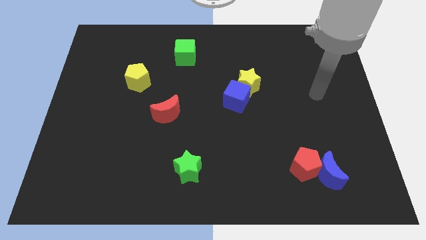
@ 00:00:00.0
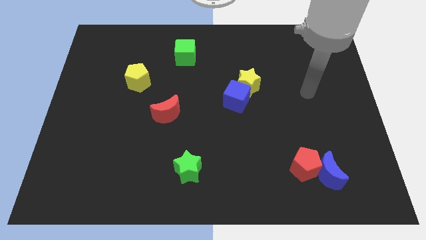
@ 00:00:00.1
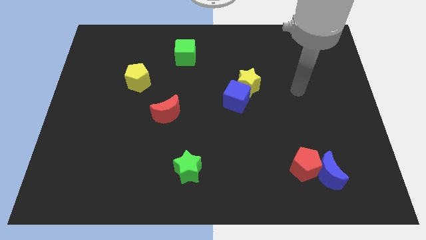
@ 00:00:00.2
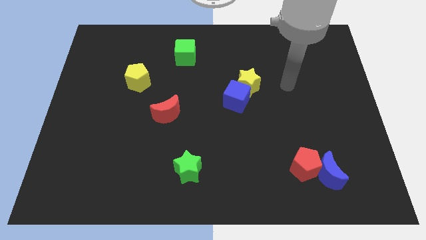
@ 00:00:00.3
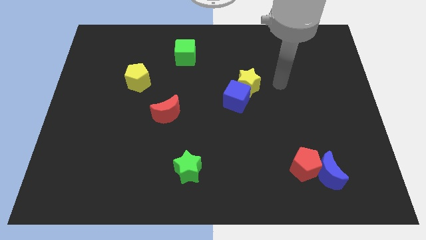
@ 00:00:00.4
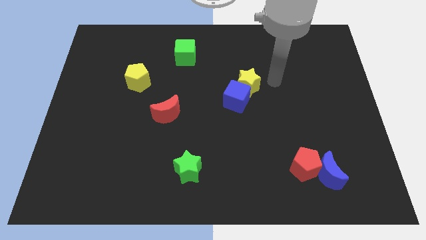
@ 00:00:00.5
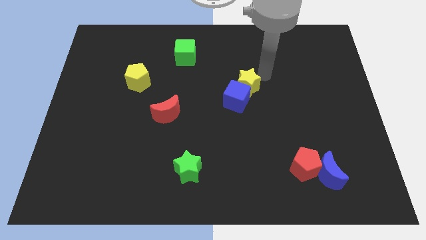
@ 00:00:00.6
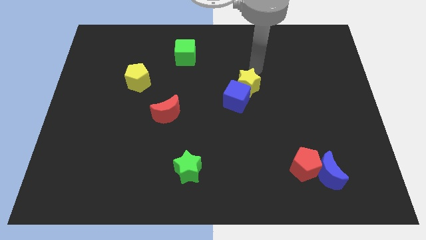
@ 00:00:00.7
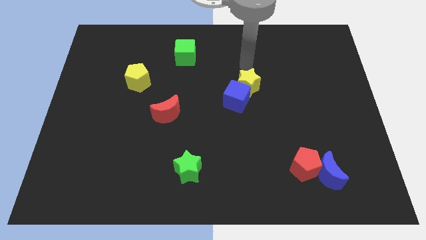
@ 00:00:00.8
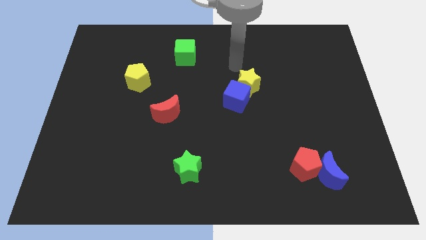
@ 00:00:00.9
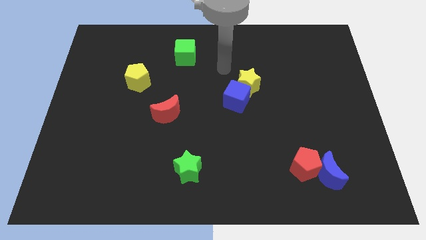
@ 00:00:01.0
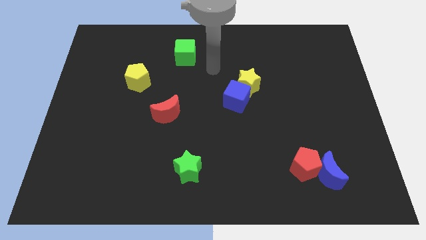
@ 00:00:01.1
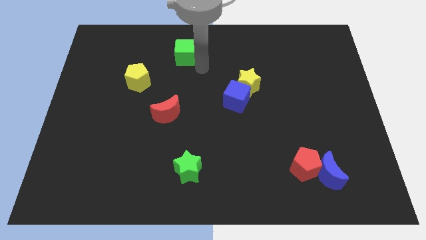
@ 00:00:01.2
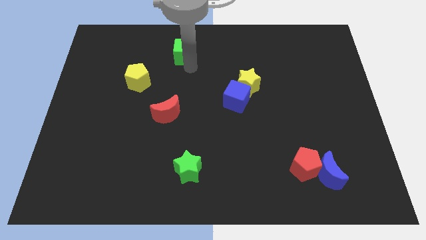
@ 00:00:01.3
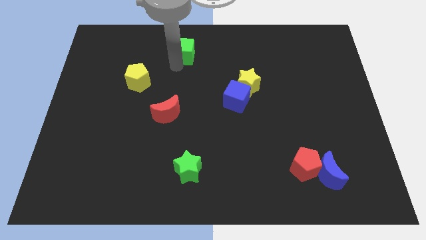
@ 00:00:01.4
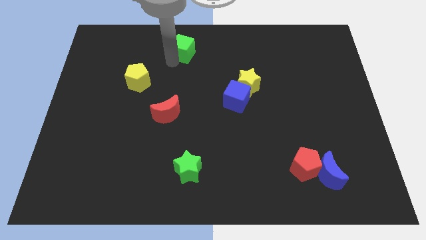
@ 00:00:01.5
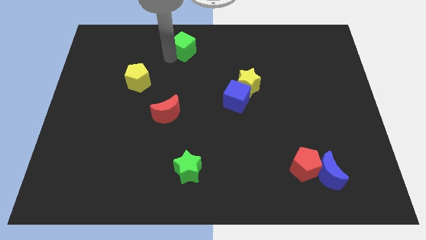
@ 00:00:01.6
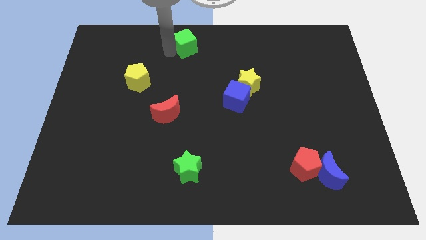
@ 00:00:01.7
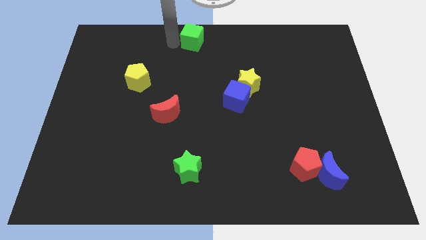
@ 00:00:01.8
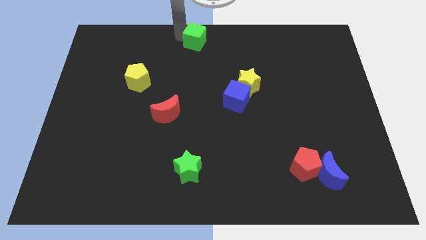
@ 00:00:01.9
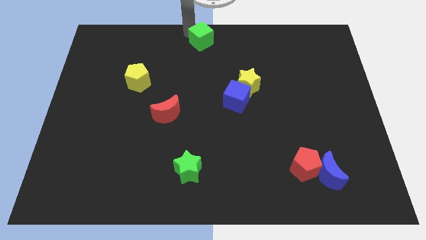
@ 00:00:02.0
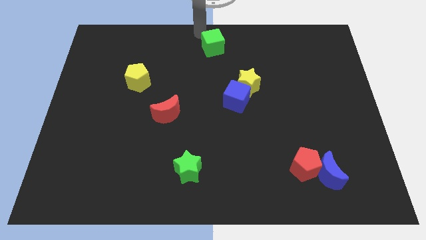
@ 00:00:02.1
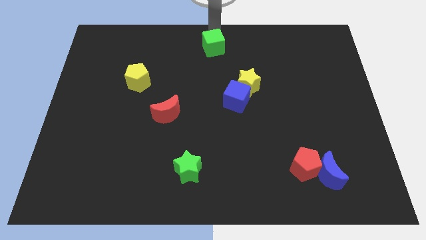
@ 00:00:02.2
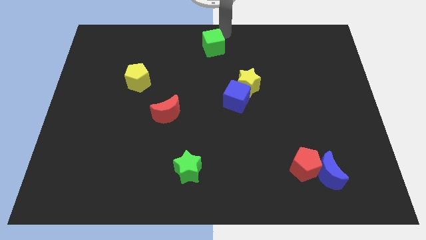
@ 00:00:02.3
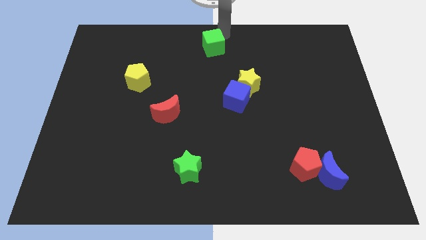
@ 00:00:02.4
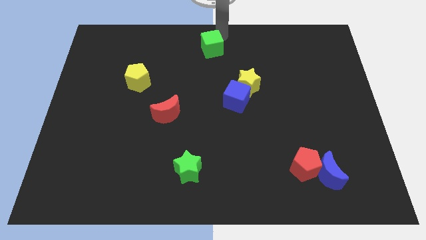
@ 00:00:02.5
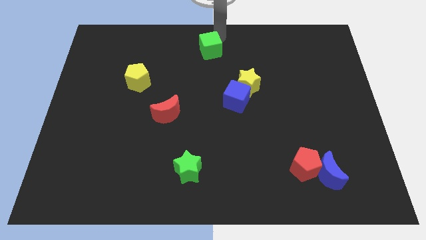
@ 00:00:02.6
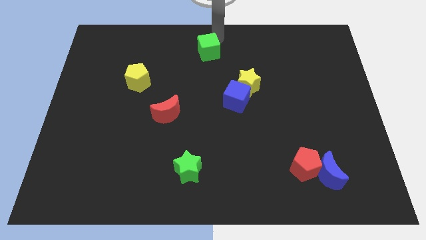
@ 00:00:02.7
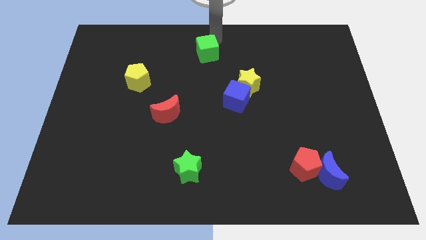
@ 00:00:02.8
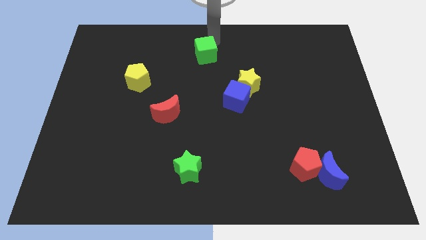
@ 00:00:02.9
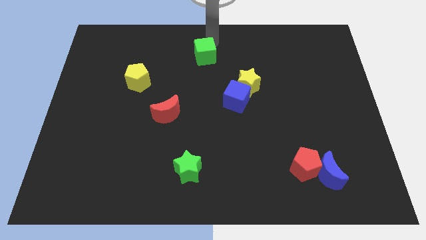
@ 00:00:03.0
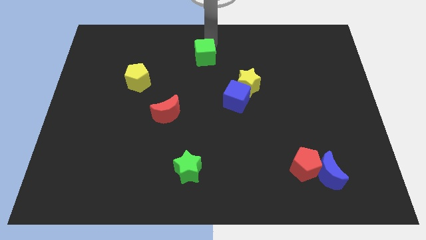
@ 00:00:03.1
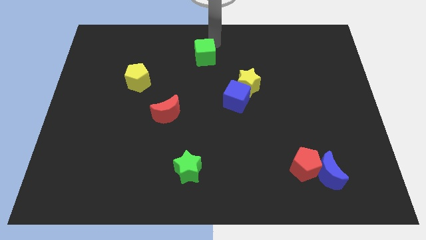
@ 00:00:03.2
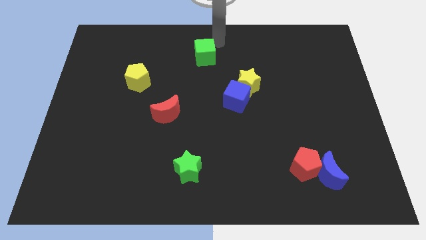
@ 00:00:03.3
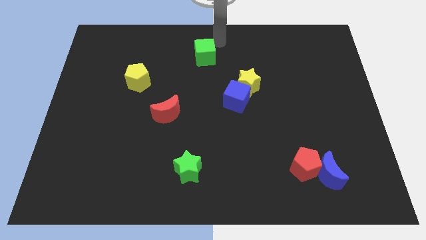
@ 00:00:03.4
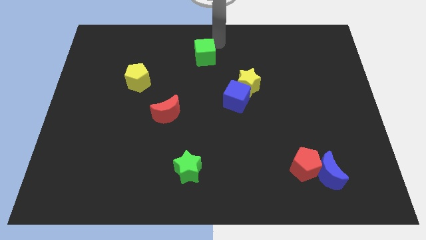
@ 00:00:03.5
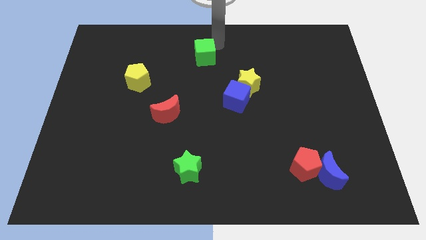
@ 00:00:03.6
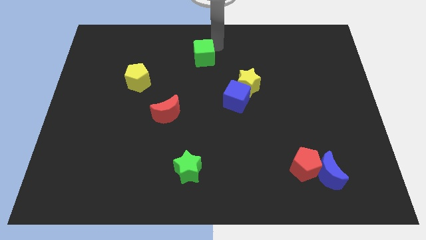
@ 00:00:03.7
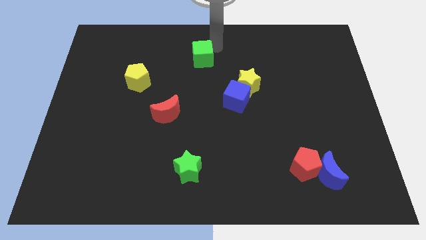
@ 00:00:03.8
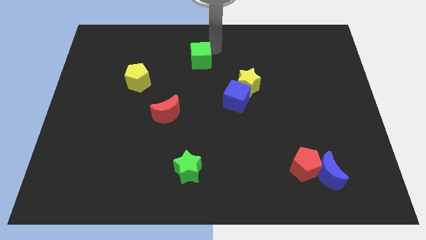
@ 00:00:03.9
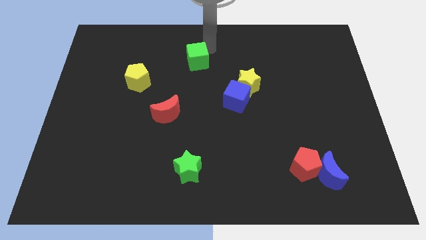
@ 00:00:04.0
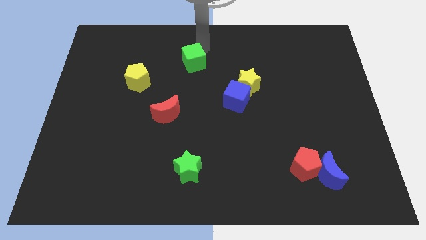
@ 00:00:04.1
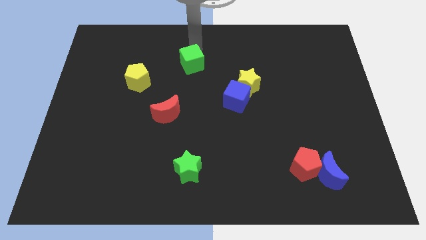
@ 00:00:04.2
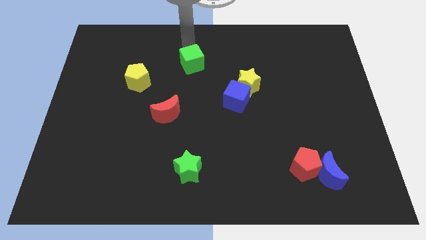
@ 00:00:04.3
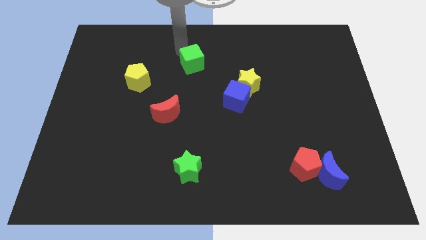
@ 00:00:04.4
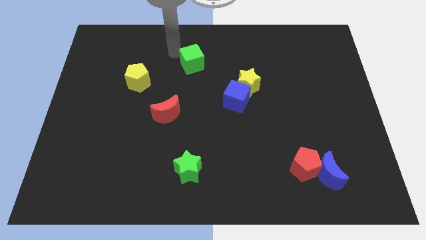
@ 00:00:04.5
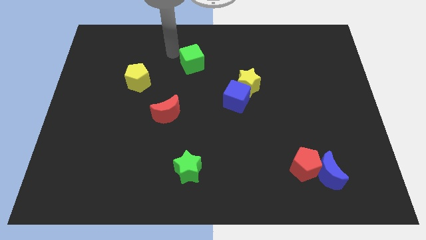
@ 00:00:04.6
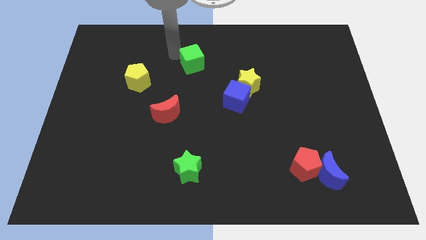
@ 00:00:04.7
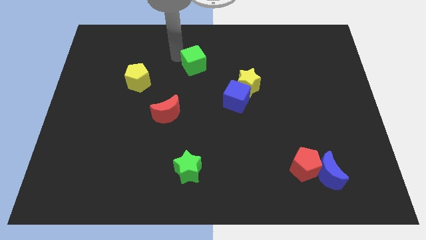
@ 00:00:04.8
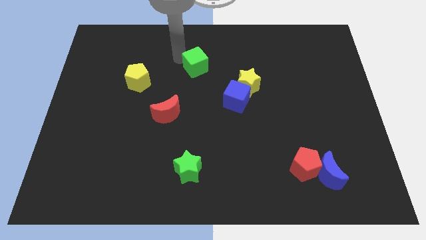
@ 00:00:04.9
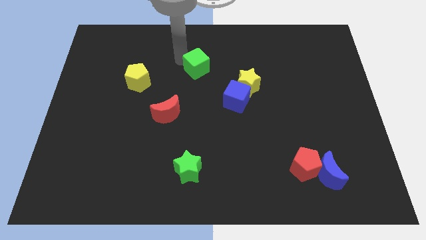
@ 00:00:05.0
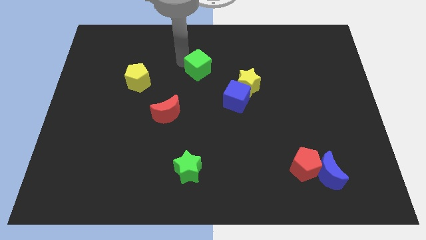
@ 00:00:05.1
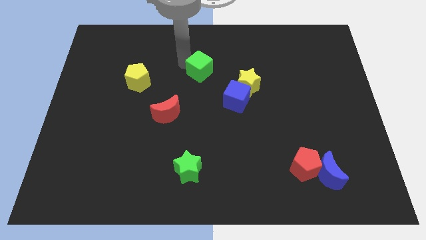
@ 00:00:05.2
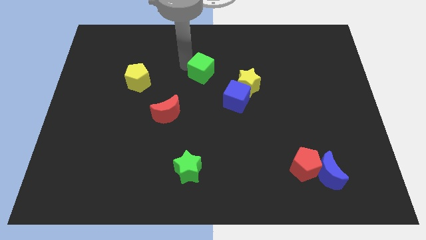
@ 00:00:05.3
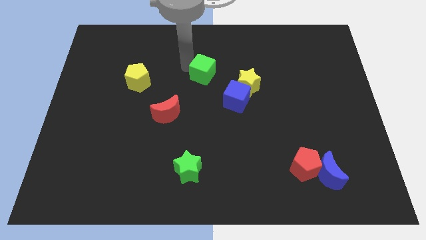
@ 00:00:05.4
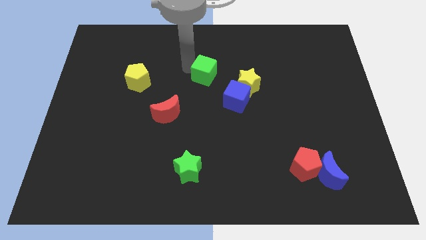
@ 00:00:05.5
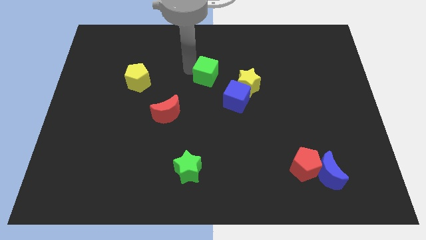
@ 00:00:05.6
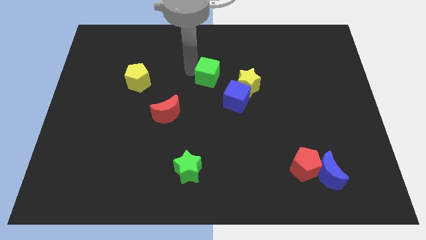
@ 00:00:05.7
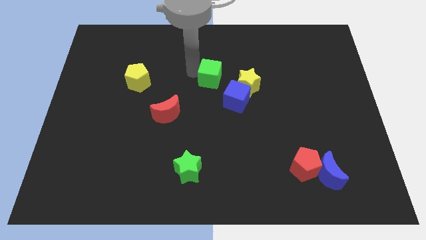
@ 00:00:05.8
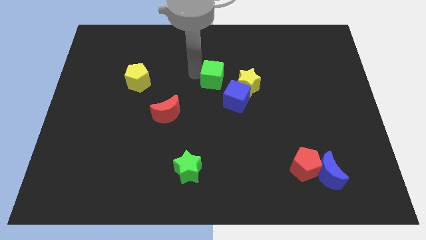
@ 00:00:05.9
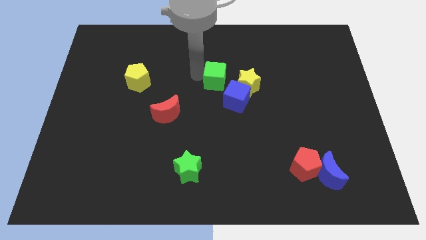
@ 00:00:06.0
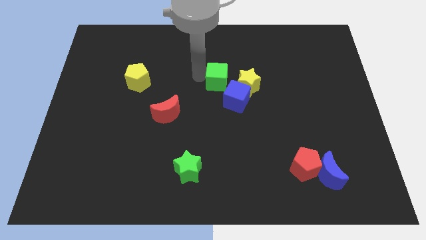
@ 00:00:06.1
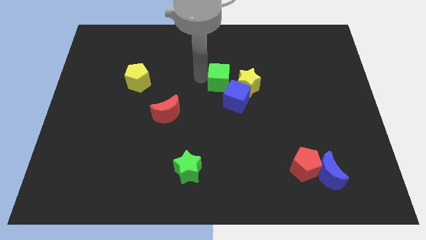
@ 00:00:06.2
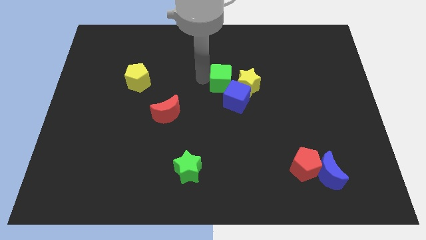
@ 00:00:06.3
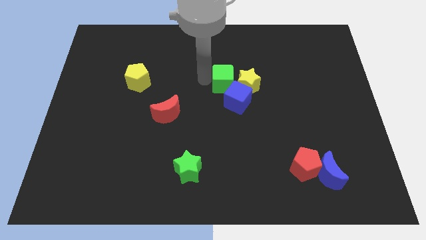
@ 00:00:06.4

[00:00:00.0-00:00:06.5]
slide the green cube next to the yellow star
